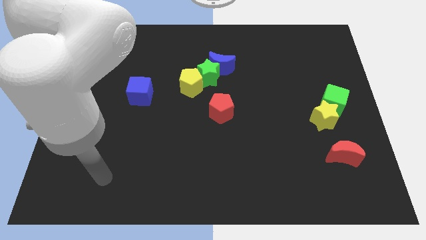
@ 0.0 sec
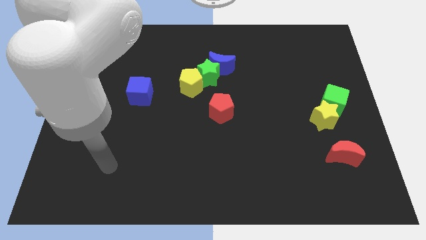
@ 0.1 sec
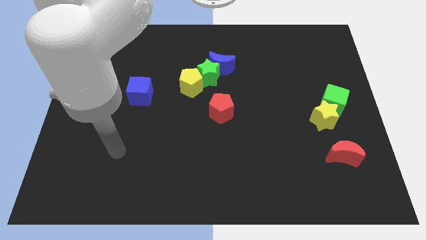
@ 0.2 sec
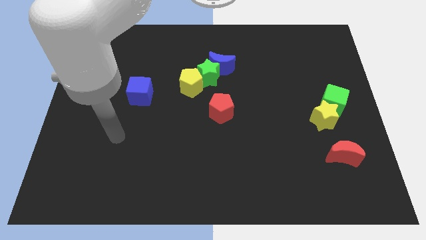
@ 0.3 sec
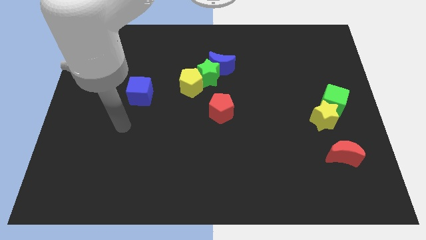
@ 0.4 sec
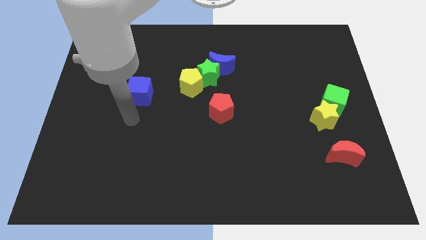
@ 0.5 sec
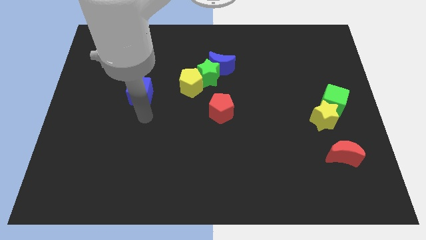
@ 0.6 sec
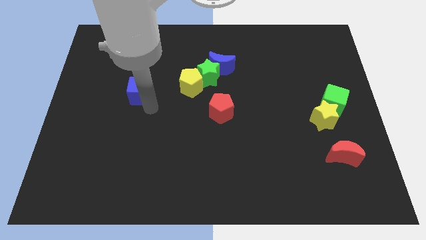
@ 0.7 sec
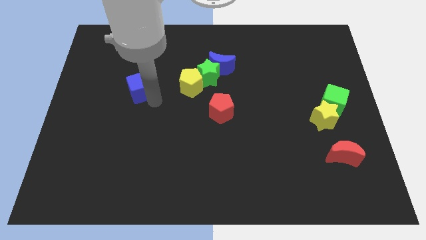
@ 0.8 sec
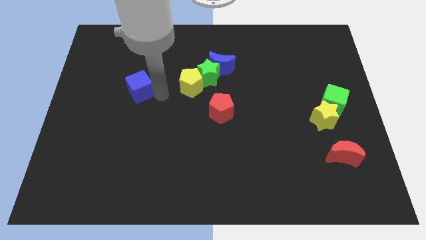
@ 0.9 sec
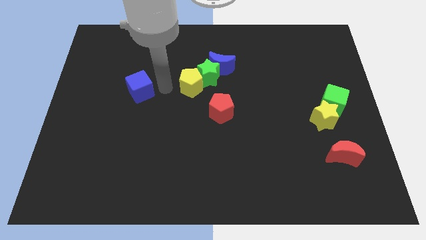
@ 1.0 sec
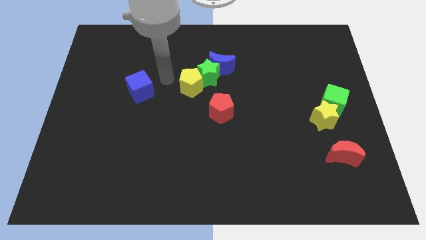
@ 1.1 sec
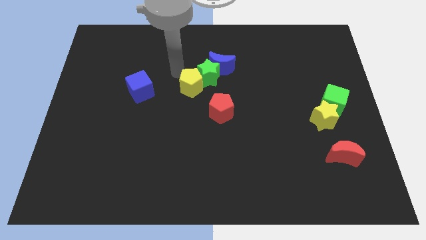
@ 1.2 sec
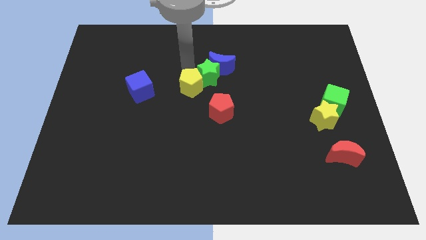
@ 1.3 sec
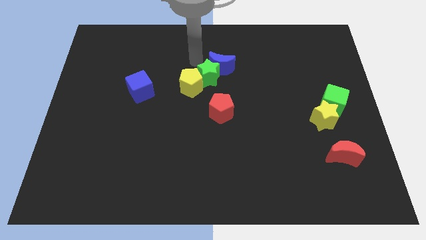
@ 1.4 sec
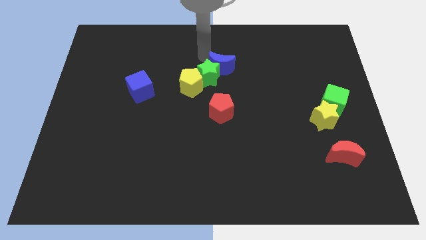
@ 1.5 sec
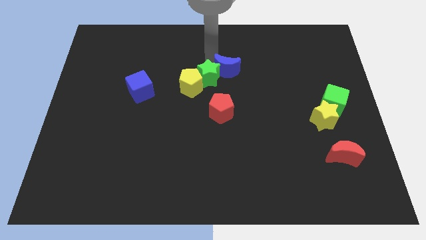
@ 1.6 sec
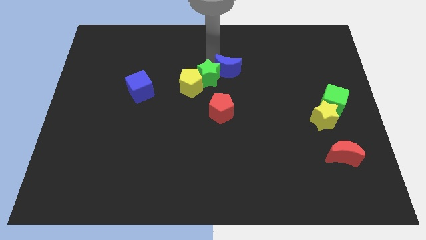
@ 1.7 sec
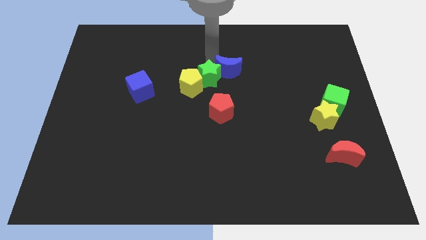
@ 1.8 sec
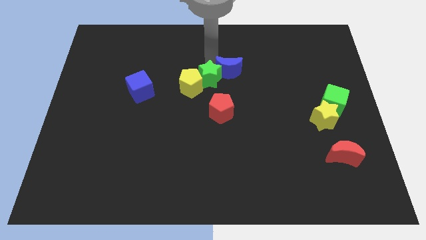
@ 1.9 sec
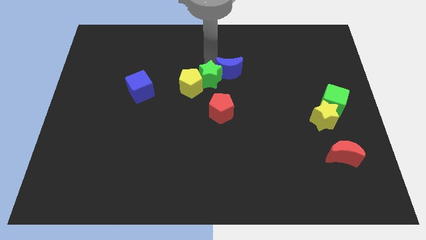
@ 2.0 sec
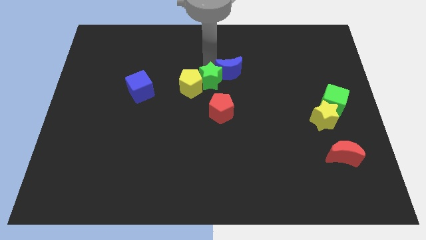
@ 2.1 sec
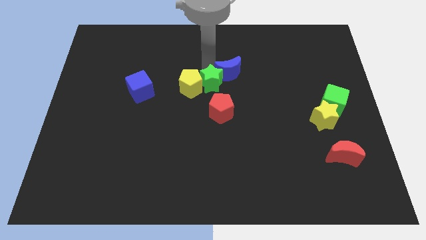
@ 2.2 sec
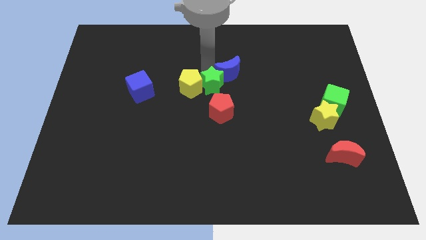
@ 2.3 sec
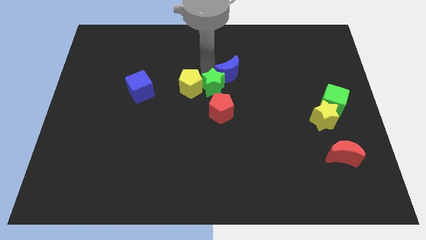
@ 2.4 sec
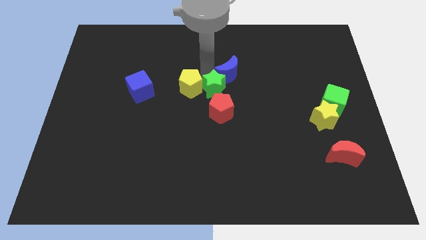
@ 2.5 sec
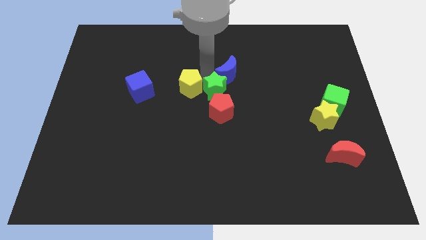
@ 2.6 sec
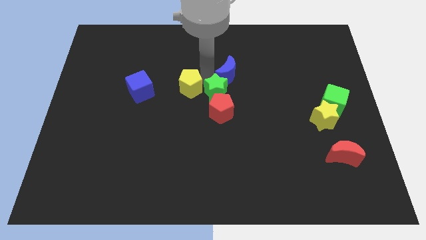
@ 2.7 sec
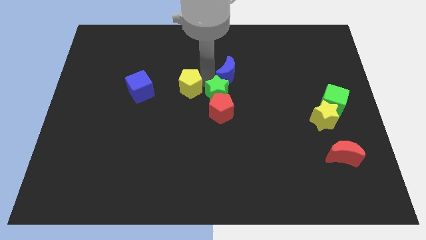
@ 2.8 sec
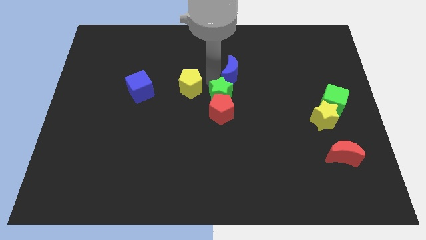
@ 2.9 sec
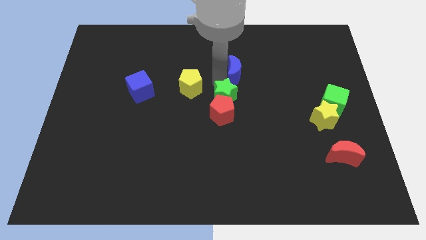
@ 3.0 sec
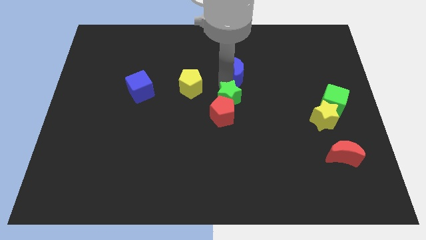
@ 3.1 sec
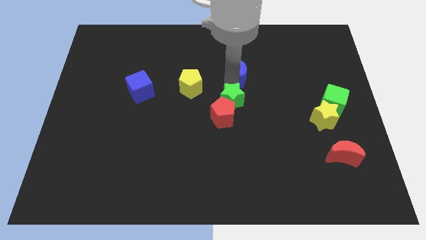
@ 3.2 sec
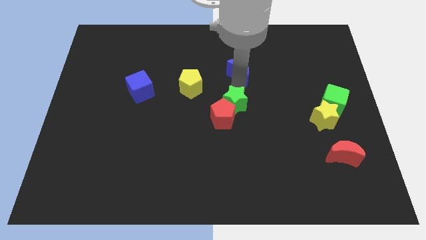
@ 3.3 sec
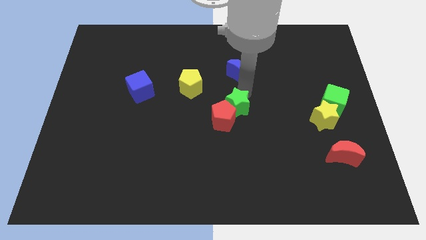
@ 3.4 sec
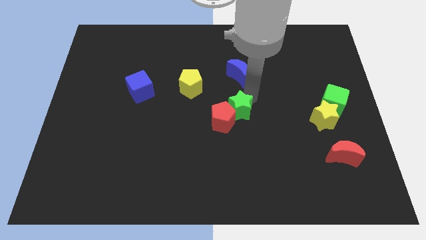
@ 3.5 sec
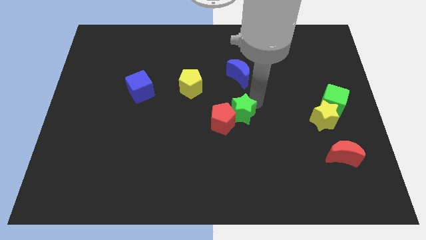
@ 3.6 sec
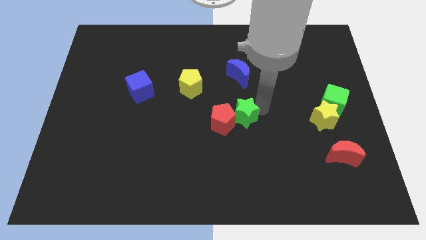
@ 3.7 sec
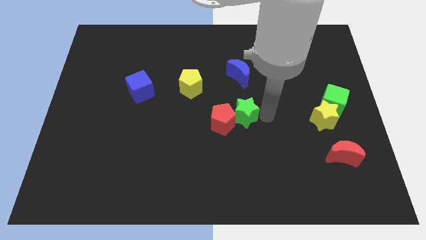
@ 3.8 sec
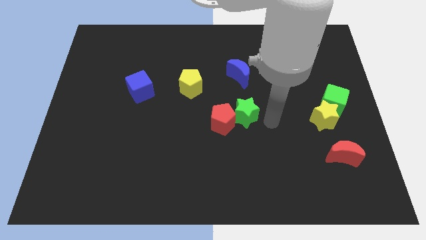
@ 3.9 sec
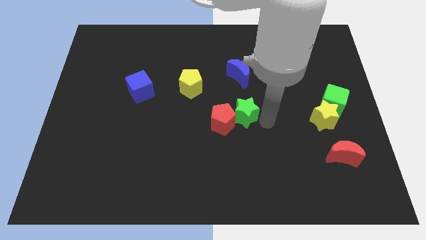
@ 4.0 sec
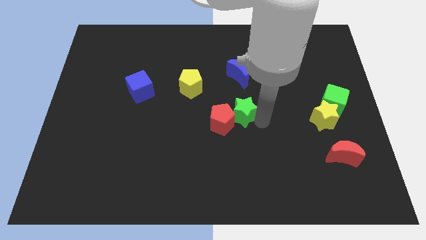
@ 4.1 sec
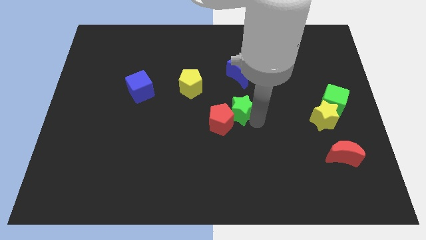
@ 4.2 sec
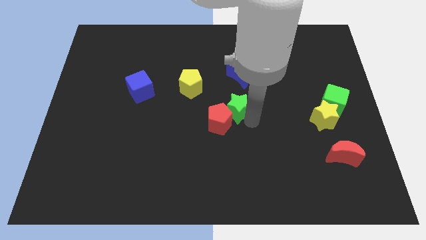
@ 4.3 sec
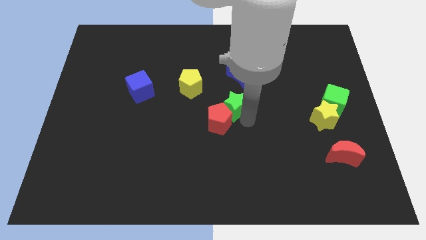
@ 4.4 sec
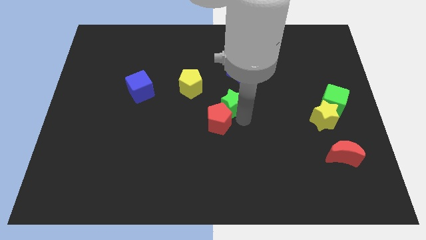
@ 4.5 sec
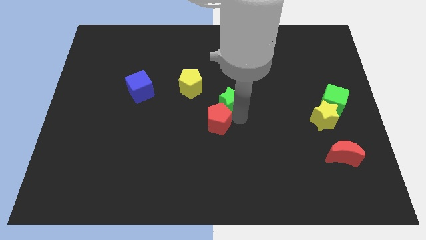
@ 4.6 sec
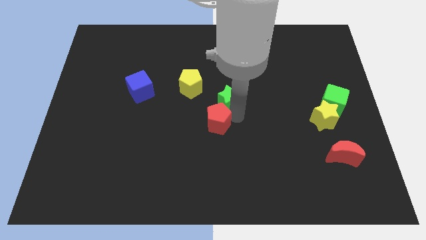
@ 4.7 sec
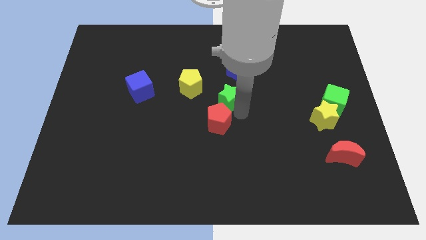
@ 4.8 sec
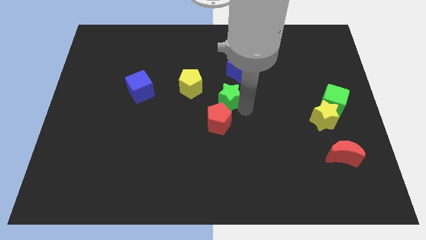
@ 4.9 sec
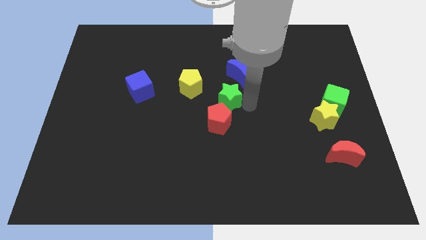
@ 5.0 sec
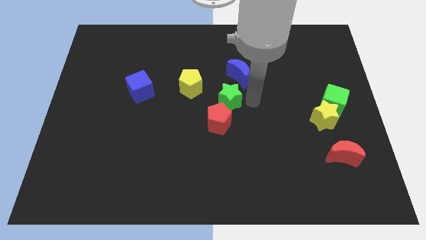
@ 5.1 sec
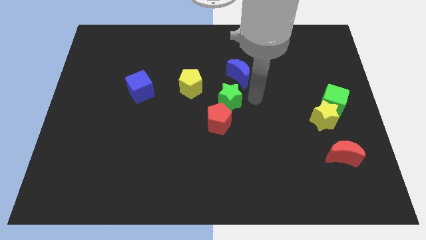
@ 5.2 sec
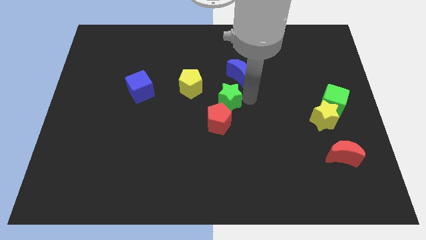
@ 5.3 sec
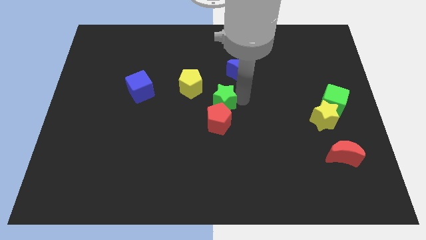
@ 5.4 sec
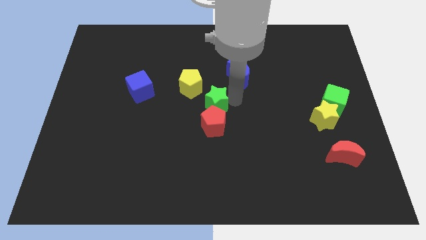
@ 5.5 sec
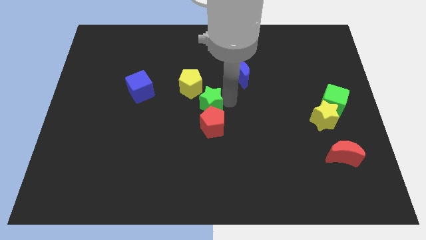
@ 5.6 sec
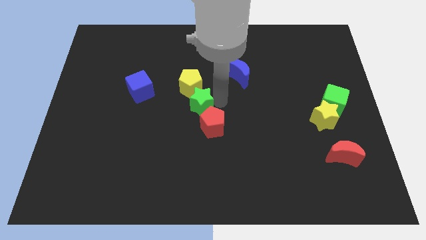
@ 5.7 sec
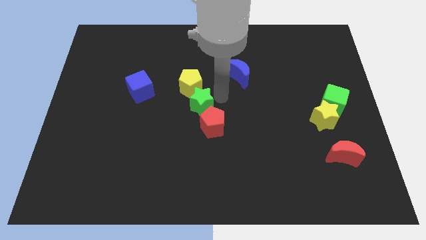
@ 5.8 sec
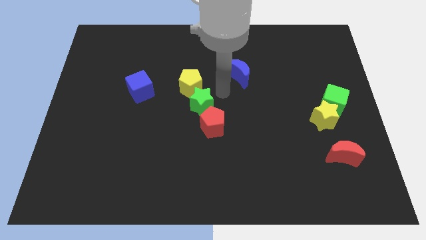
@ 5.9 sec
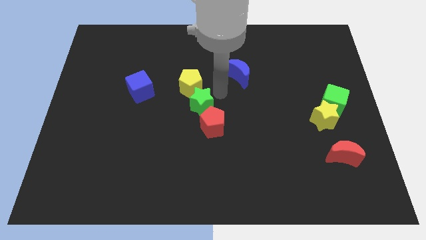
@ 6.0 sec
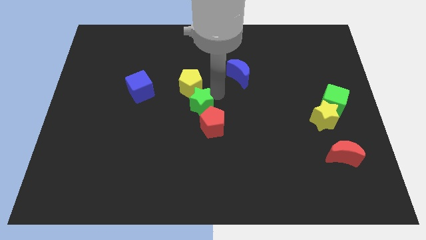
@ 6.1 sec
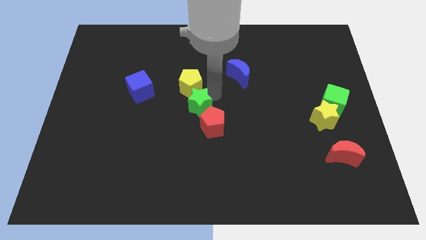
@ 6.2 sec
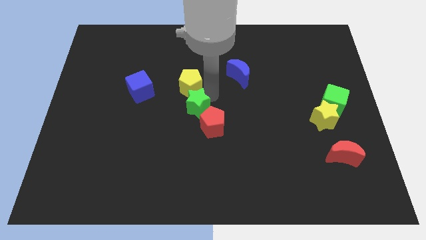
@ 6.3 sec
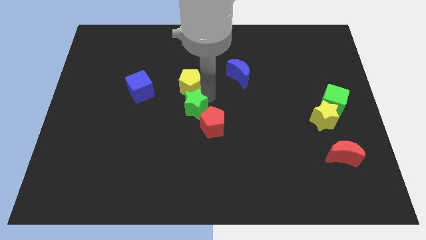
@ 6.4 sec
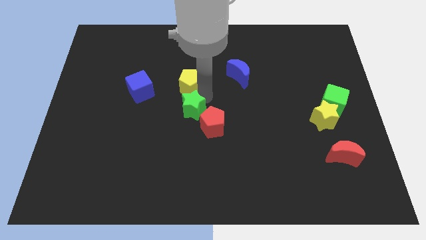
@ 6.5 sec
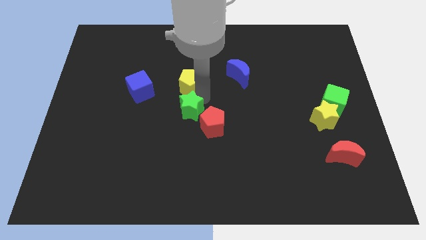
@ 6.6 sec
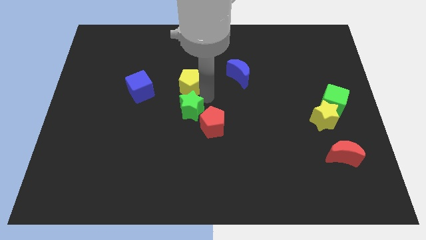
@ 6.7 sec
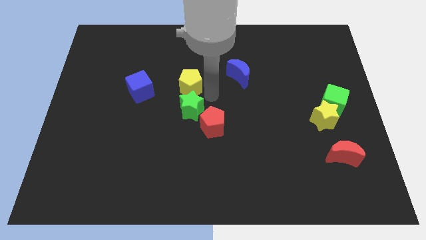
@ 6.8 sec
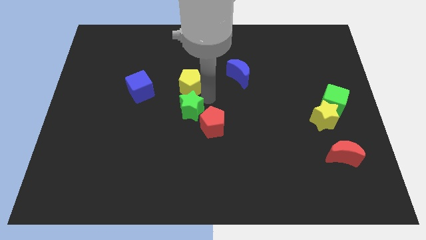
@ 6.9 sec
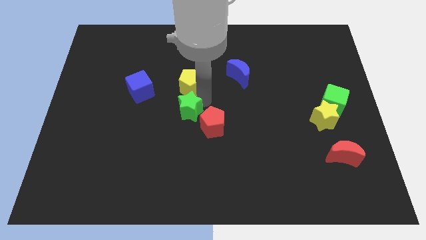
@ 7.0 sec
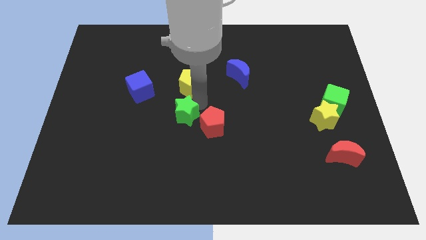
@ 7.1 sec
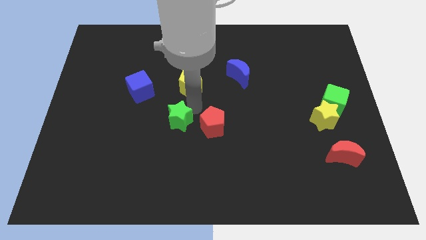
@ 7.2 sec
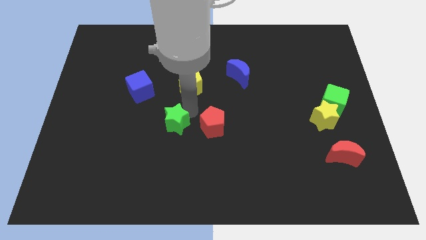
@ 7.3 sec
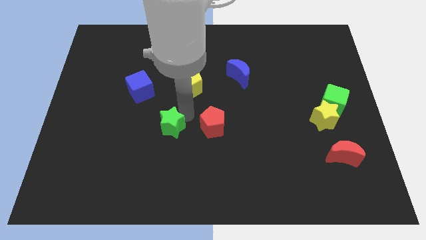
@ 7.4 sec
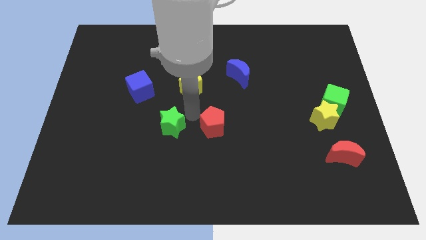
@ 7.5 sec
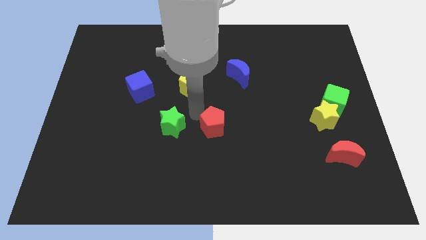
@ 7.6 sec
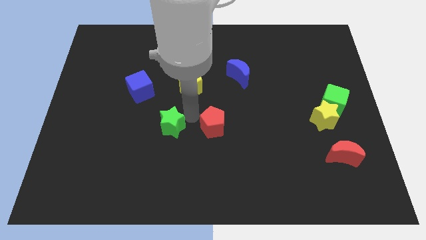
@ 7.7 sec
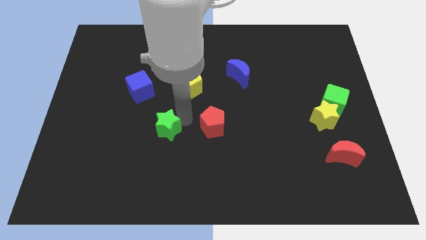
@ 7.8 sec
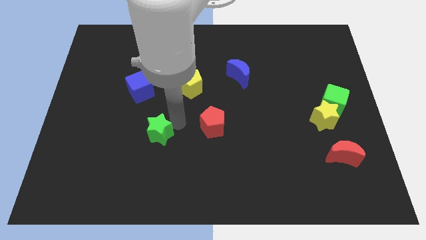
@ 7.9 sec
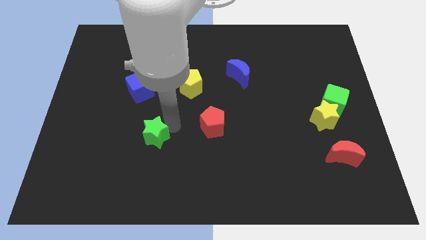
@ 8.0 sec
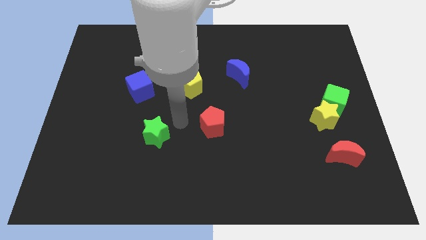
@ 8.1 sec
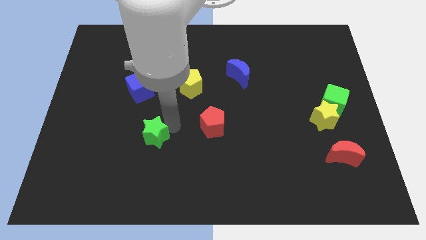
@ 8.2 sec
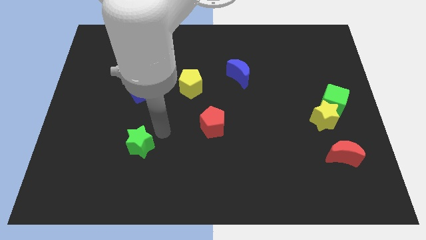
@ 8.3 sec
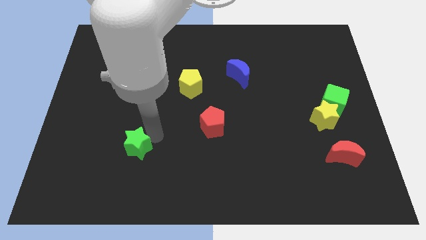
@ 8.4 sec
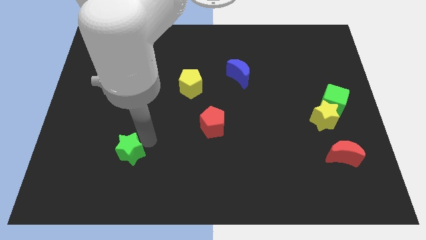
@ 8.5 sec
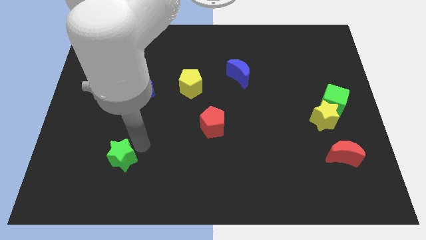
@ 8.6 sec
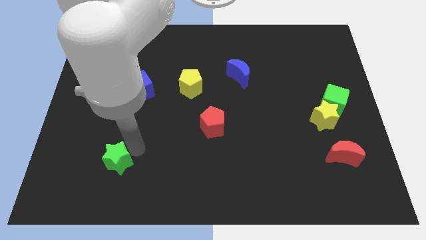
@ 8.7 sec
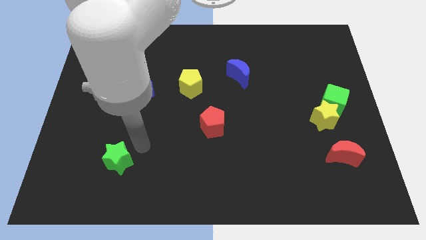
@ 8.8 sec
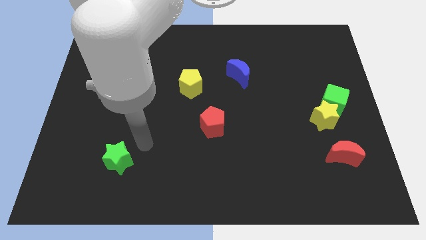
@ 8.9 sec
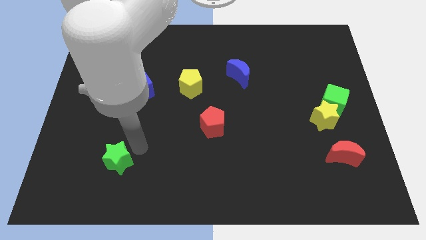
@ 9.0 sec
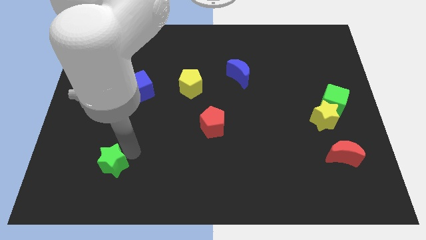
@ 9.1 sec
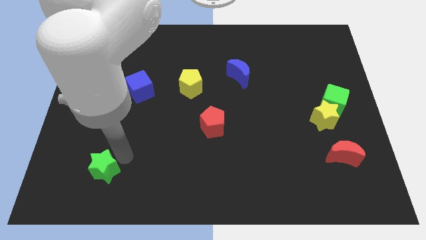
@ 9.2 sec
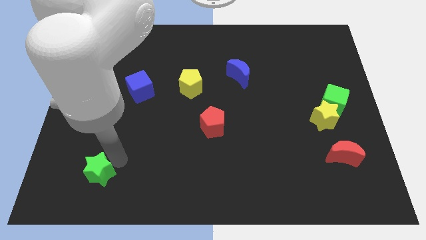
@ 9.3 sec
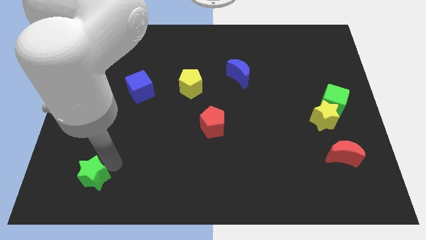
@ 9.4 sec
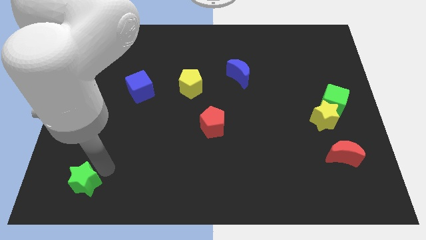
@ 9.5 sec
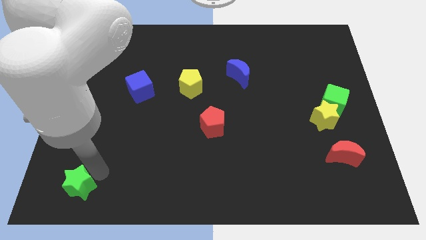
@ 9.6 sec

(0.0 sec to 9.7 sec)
put the green star to the bottom left corner
